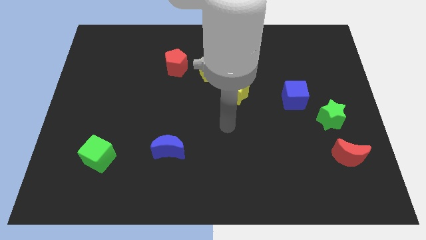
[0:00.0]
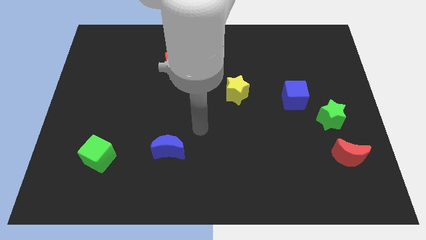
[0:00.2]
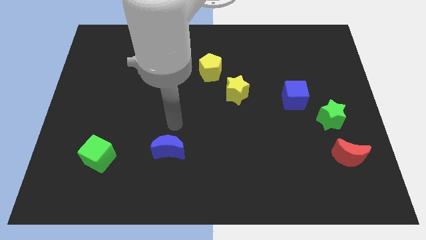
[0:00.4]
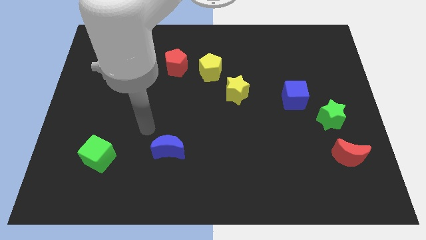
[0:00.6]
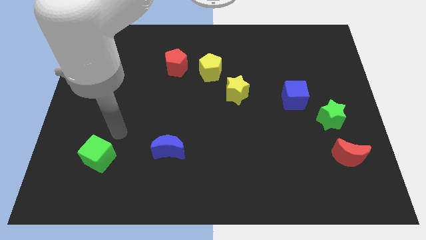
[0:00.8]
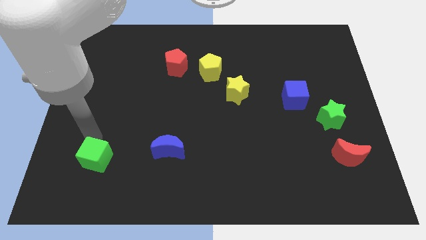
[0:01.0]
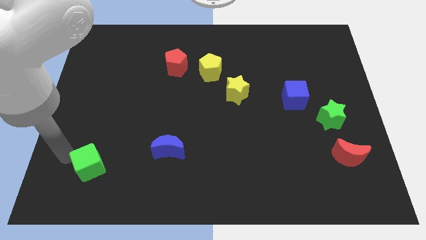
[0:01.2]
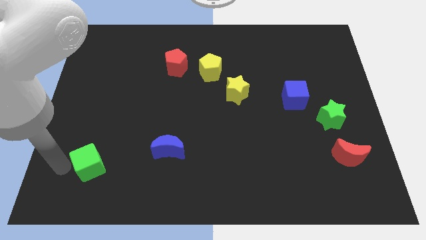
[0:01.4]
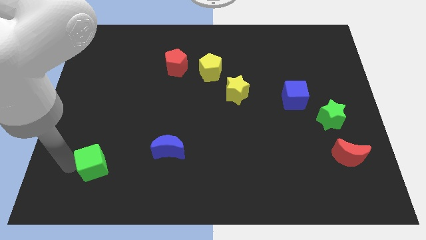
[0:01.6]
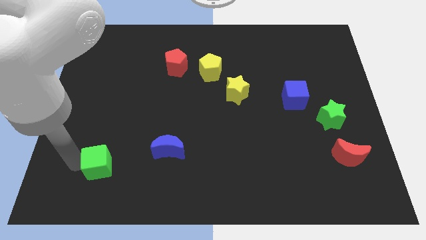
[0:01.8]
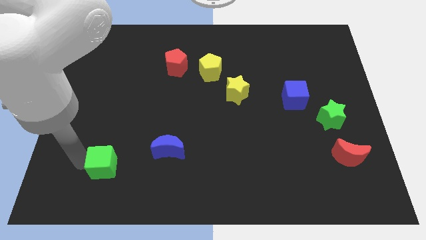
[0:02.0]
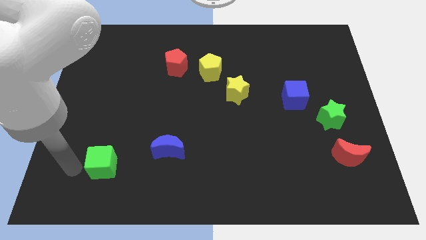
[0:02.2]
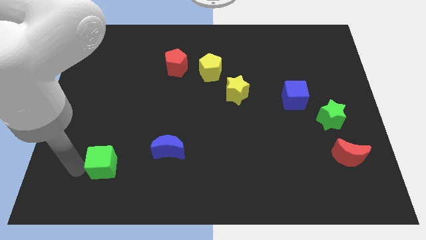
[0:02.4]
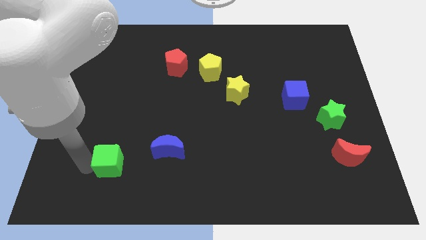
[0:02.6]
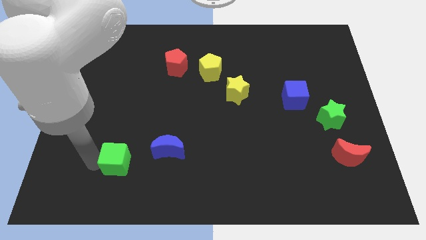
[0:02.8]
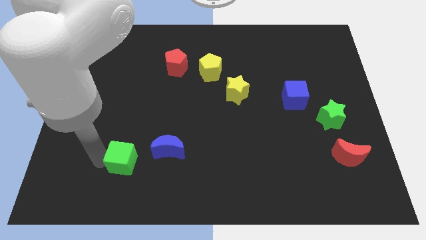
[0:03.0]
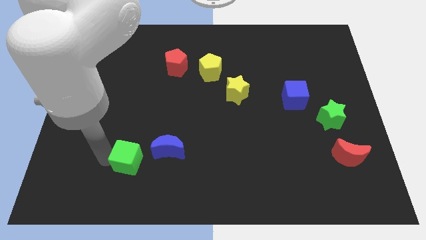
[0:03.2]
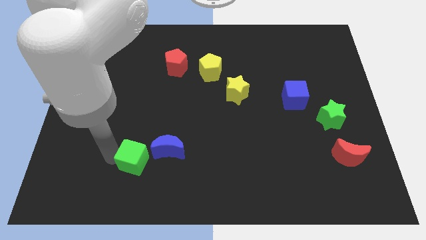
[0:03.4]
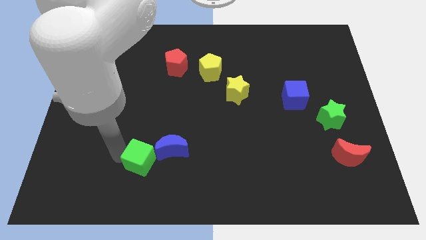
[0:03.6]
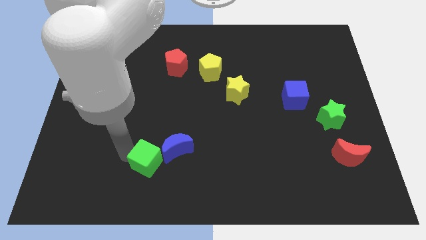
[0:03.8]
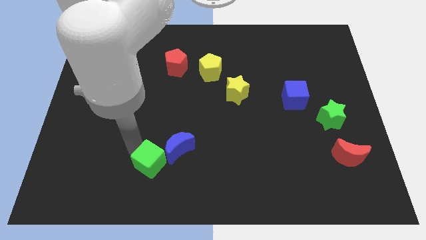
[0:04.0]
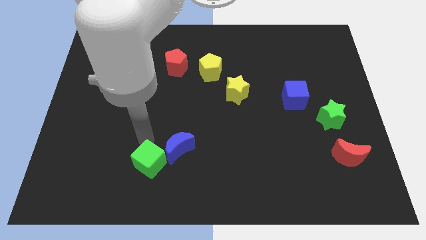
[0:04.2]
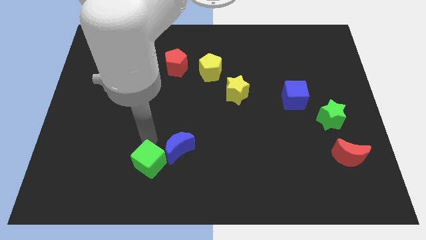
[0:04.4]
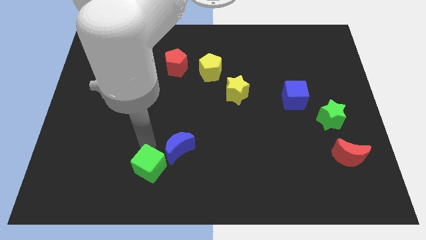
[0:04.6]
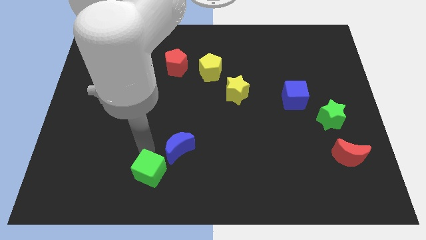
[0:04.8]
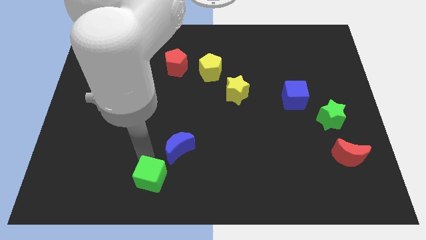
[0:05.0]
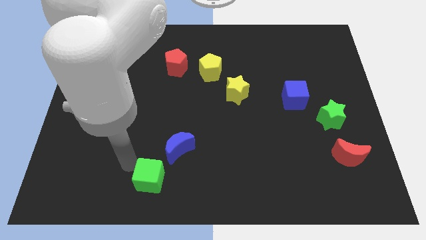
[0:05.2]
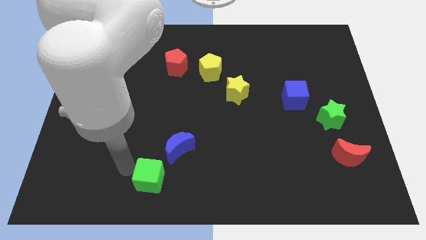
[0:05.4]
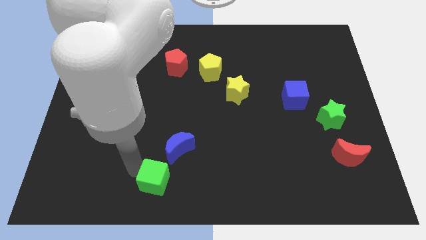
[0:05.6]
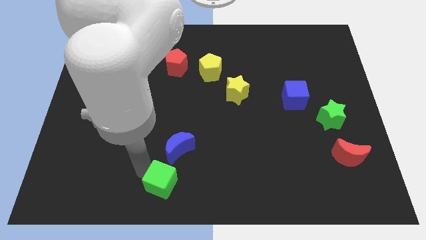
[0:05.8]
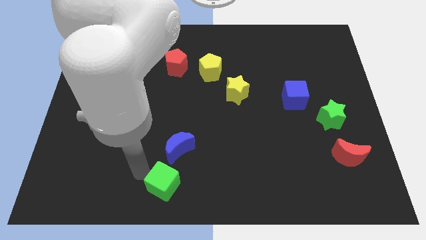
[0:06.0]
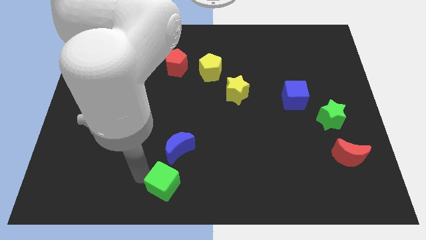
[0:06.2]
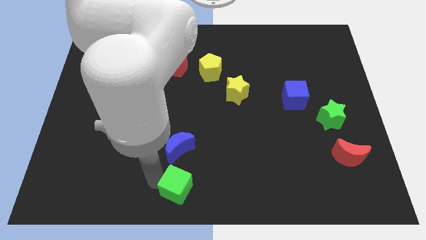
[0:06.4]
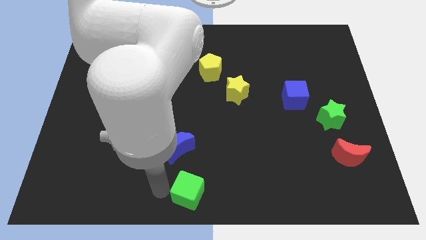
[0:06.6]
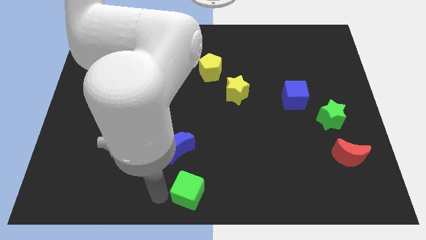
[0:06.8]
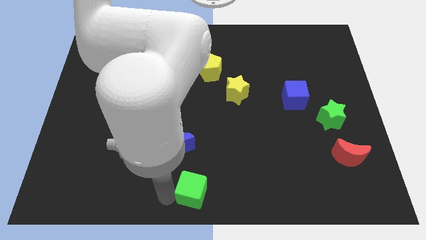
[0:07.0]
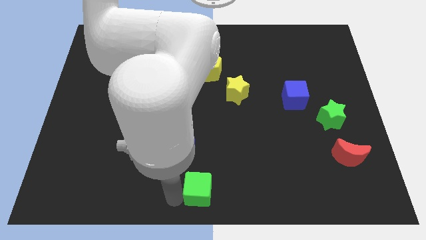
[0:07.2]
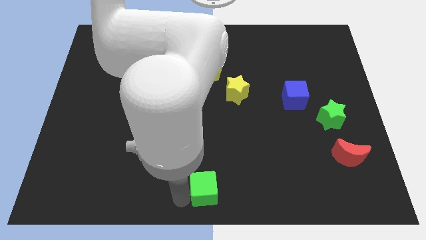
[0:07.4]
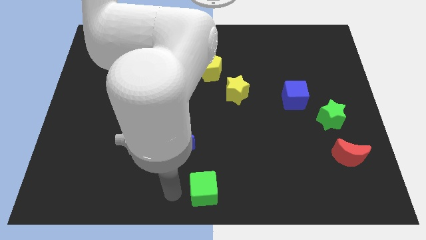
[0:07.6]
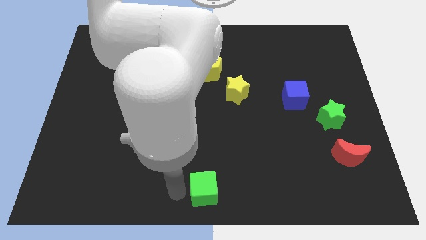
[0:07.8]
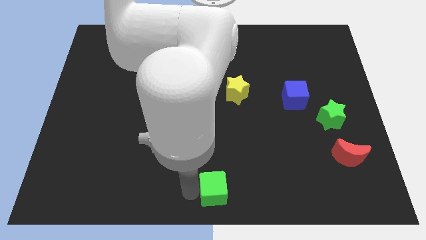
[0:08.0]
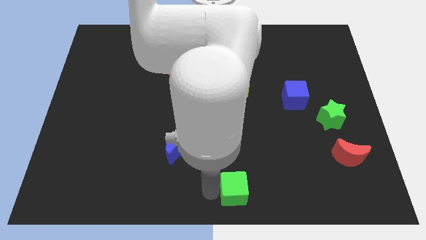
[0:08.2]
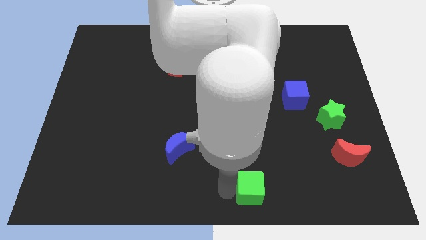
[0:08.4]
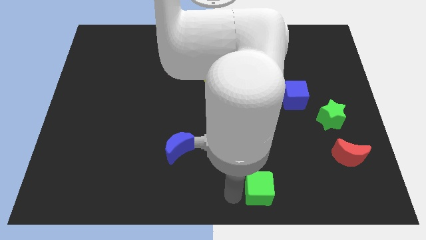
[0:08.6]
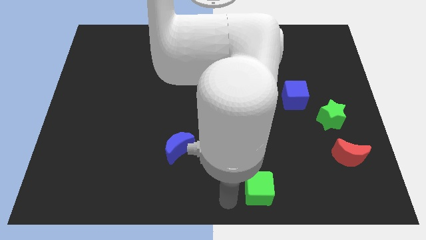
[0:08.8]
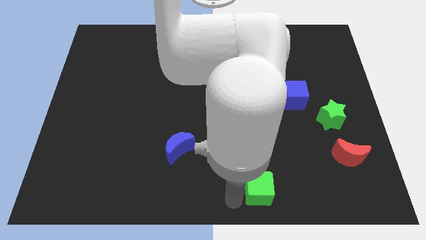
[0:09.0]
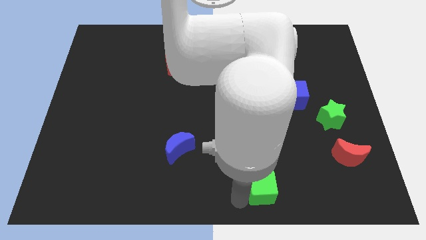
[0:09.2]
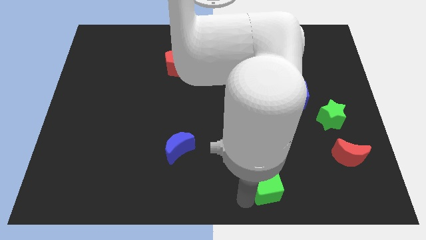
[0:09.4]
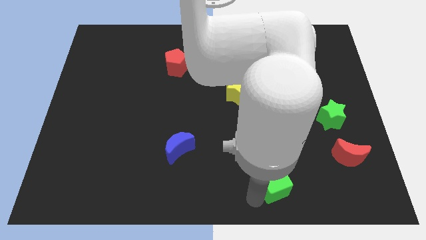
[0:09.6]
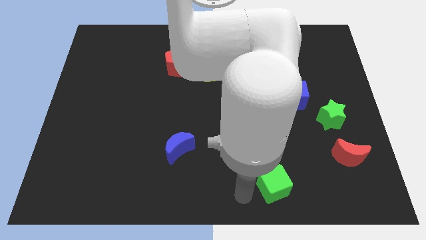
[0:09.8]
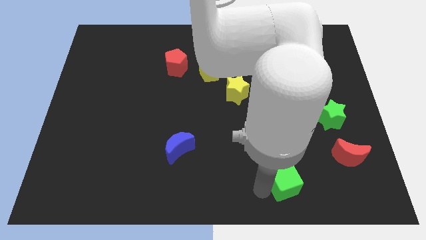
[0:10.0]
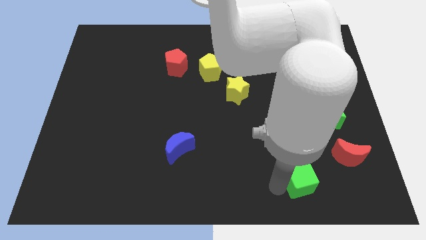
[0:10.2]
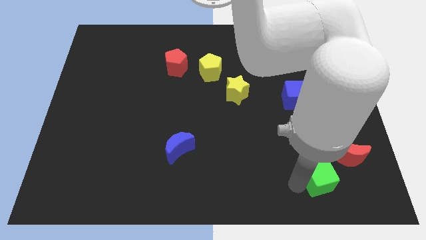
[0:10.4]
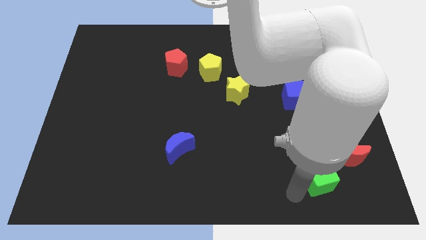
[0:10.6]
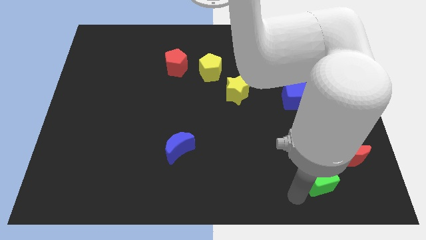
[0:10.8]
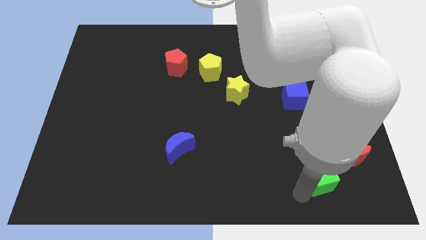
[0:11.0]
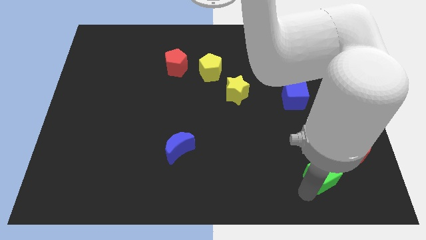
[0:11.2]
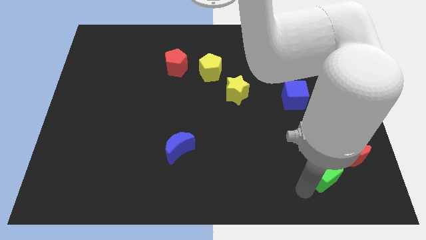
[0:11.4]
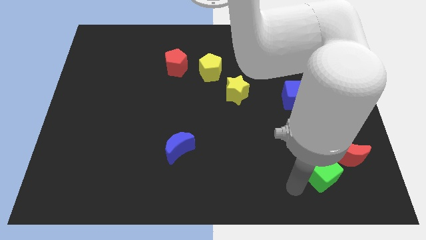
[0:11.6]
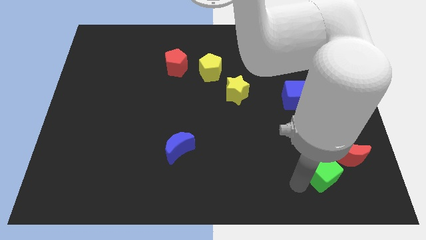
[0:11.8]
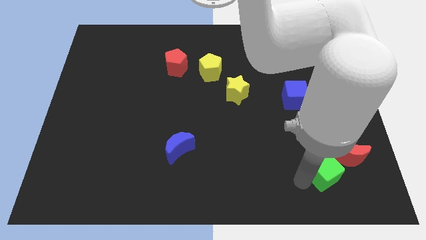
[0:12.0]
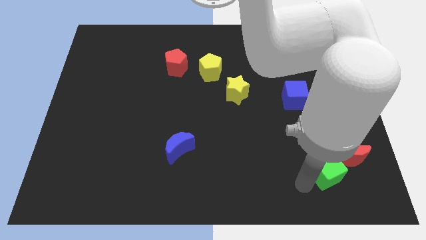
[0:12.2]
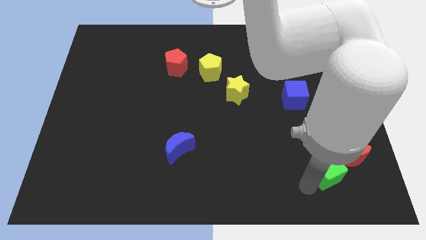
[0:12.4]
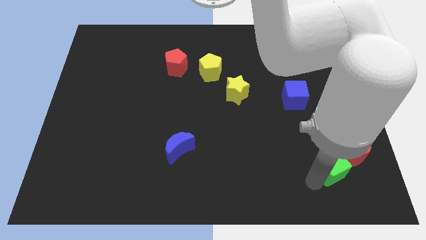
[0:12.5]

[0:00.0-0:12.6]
move the green cube towards the red moon
